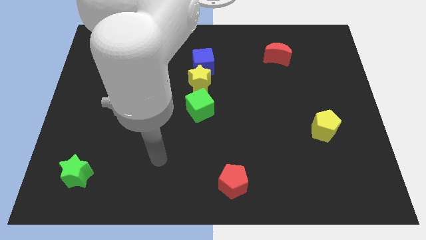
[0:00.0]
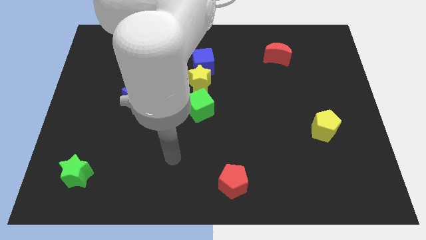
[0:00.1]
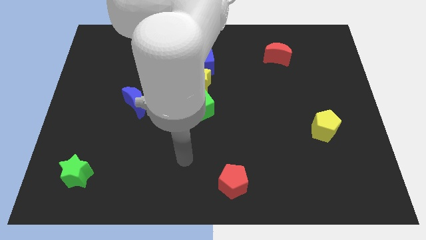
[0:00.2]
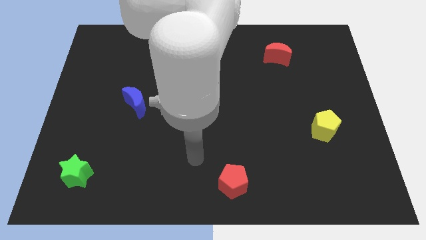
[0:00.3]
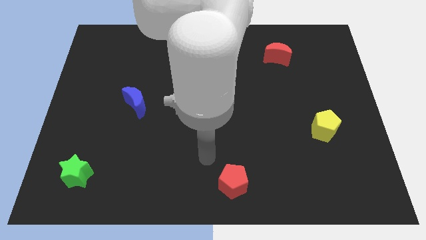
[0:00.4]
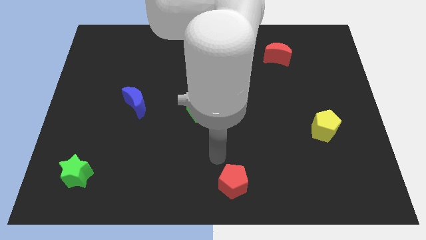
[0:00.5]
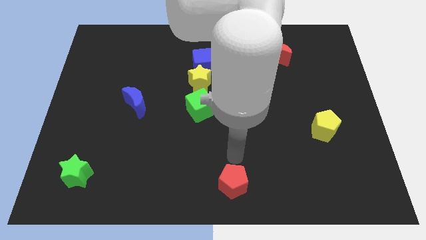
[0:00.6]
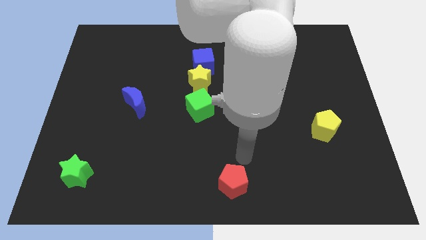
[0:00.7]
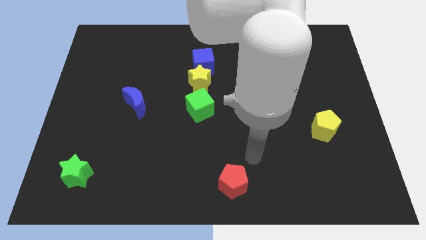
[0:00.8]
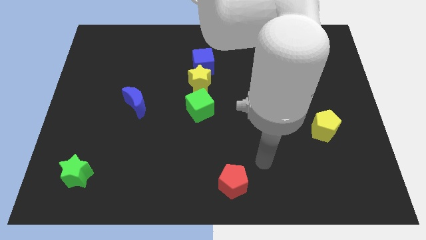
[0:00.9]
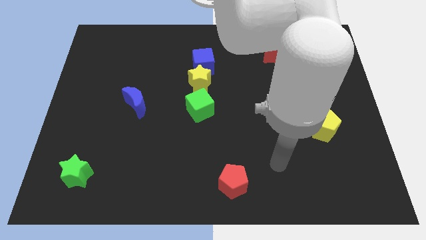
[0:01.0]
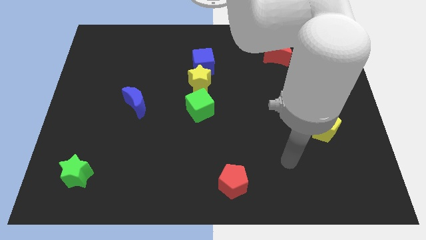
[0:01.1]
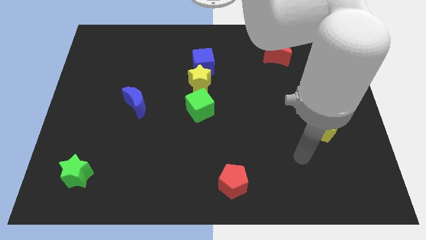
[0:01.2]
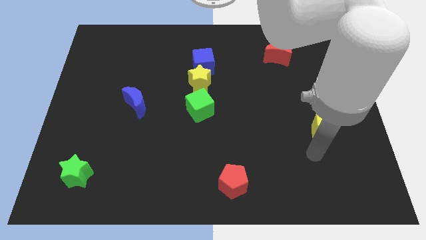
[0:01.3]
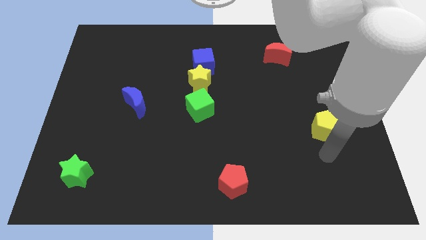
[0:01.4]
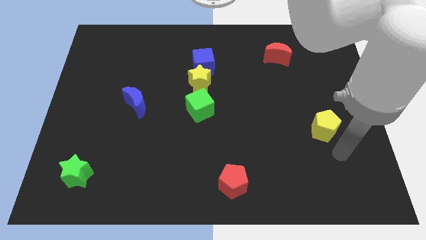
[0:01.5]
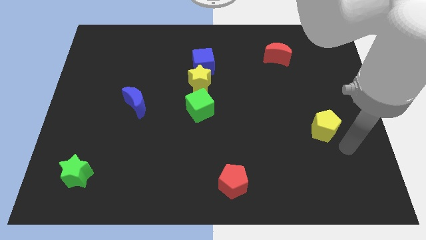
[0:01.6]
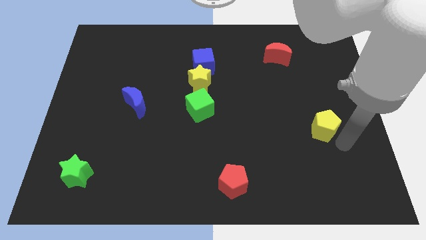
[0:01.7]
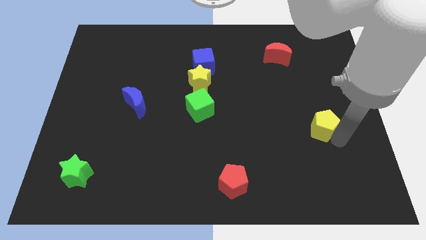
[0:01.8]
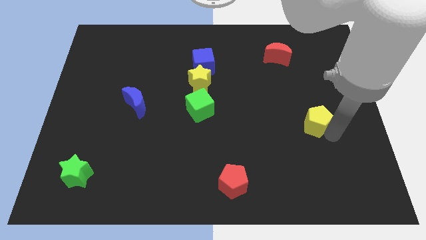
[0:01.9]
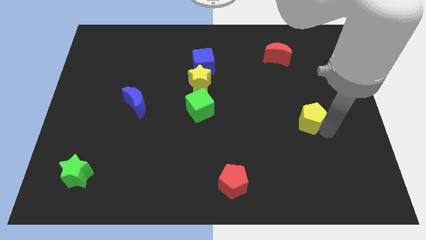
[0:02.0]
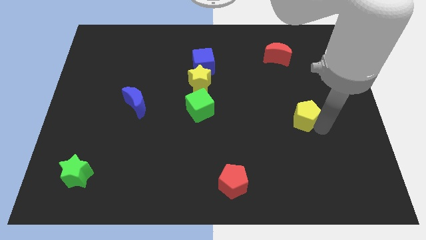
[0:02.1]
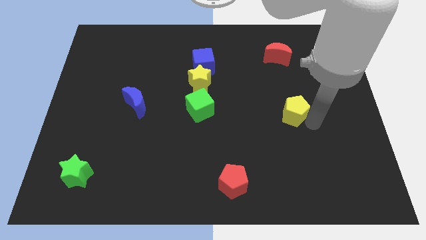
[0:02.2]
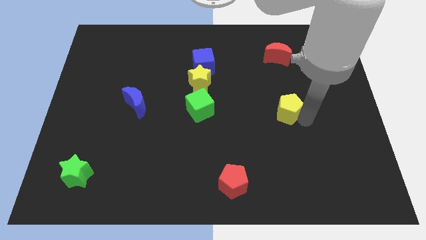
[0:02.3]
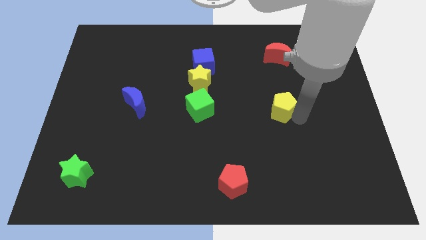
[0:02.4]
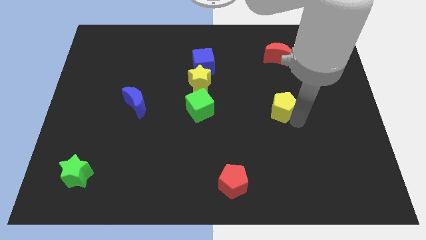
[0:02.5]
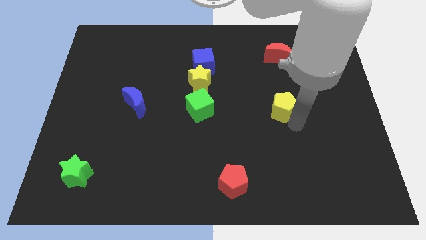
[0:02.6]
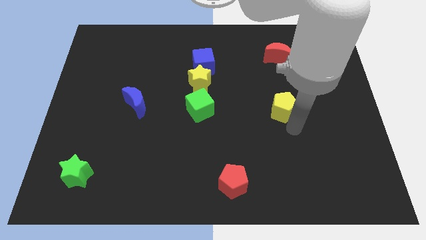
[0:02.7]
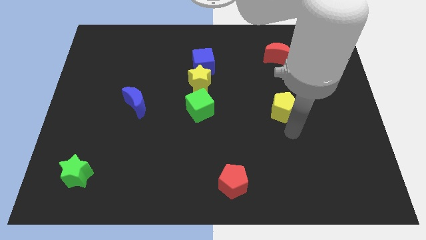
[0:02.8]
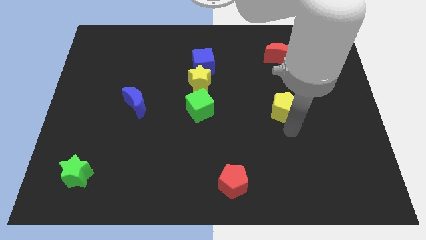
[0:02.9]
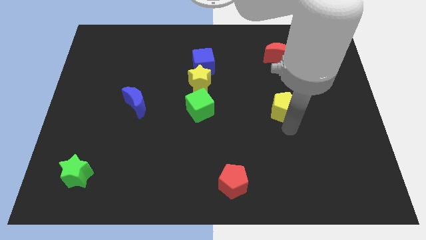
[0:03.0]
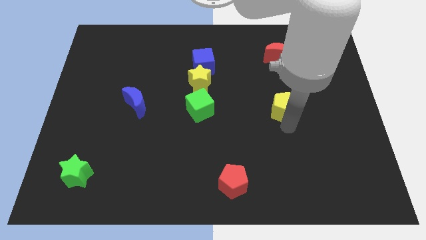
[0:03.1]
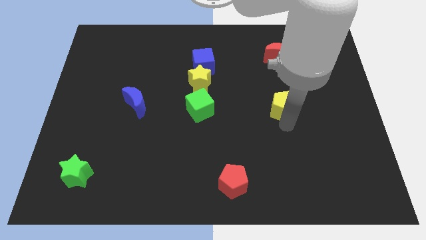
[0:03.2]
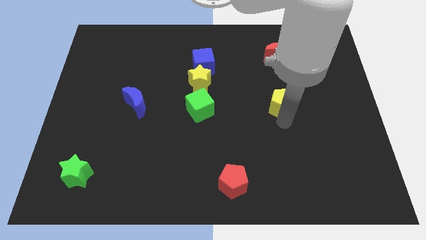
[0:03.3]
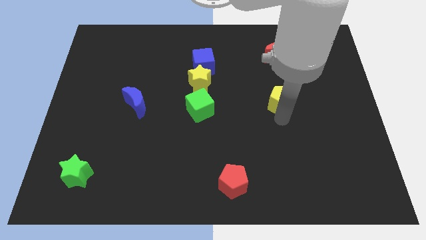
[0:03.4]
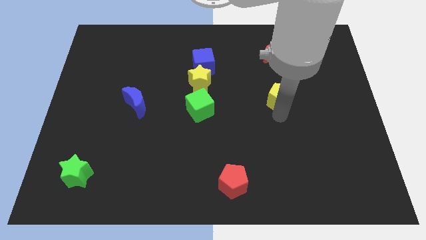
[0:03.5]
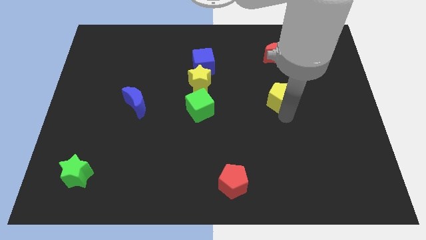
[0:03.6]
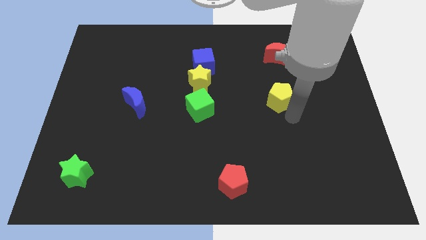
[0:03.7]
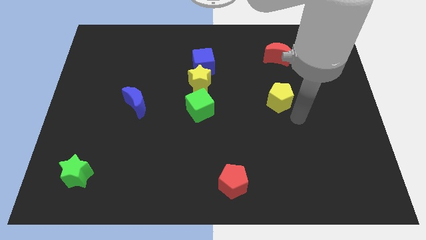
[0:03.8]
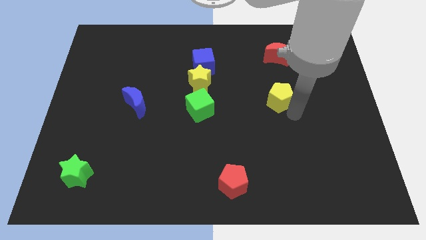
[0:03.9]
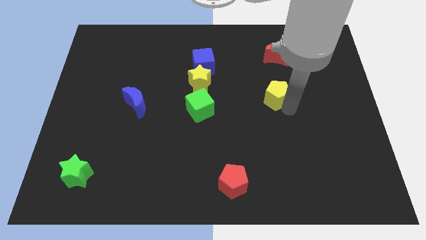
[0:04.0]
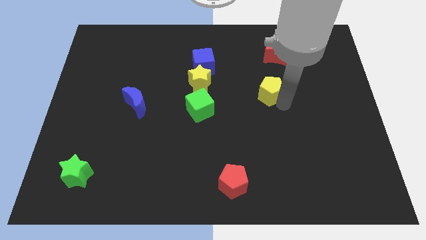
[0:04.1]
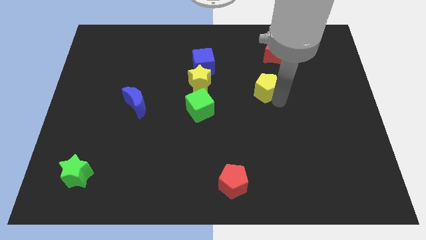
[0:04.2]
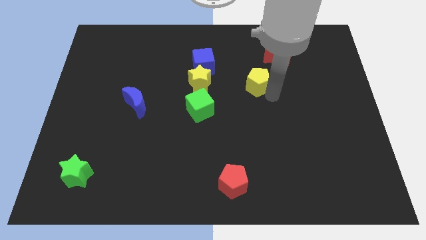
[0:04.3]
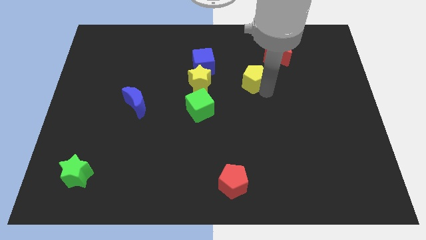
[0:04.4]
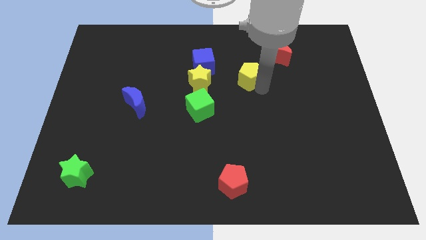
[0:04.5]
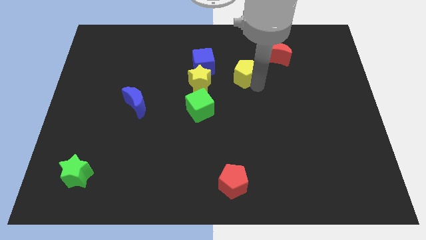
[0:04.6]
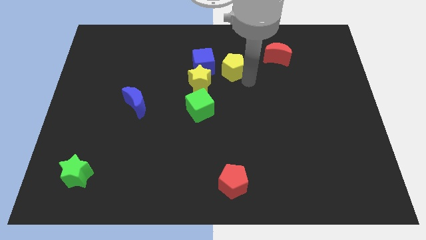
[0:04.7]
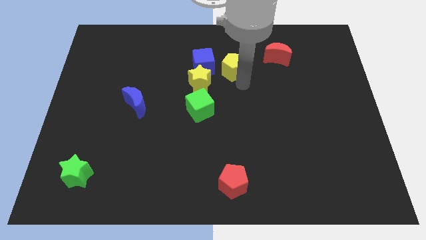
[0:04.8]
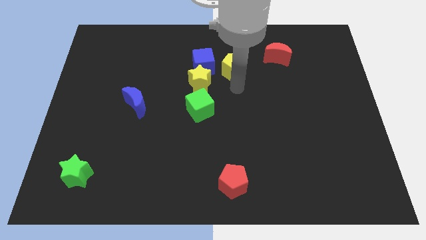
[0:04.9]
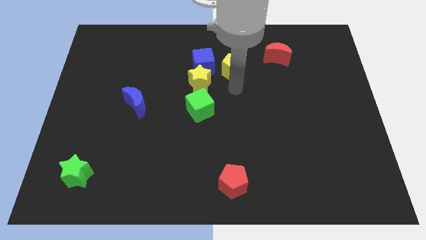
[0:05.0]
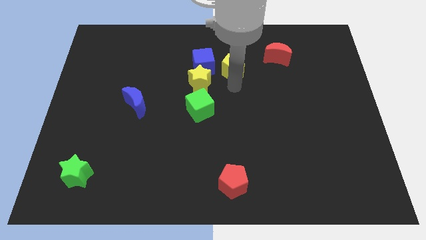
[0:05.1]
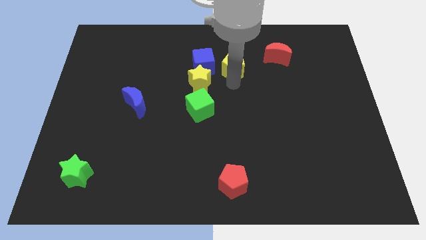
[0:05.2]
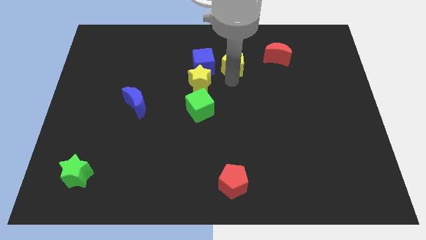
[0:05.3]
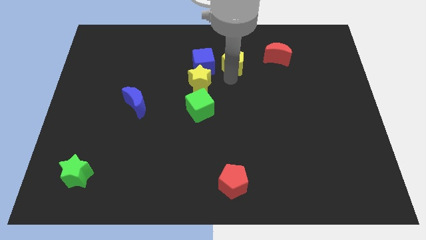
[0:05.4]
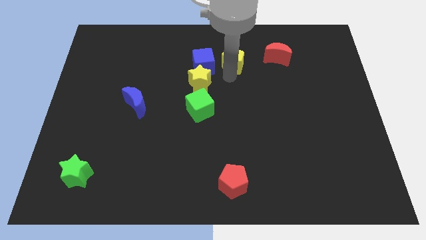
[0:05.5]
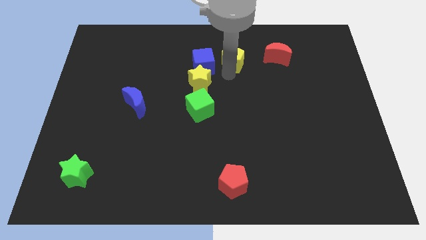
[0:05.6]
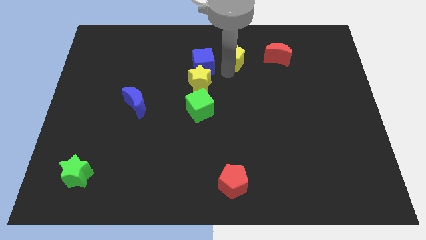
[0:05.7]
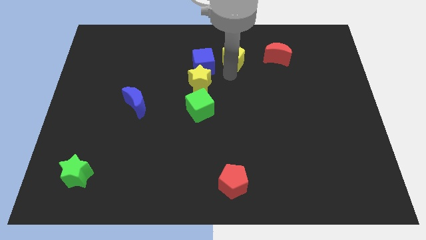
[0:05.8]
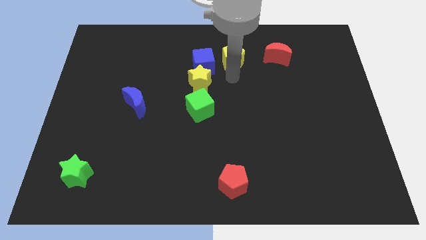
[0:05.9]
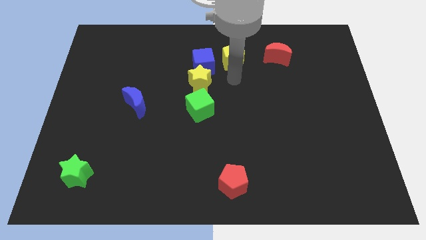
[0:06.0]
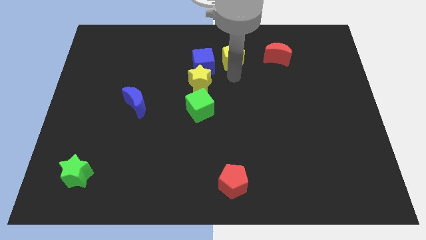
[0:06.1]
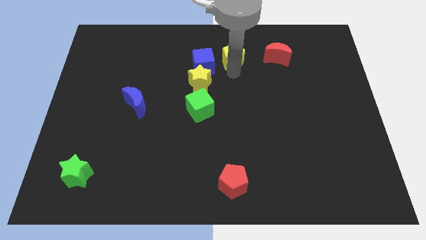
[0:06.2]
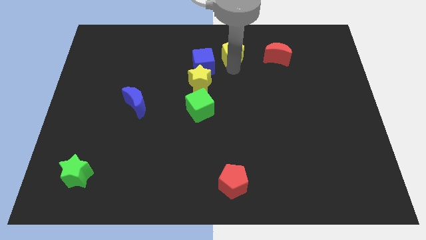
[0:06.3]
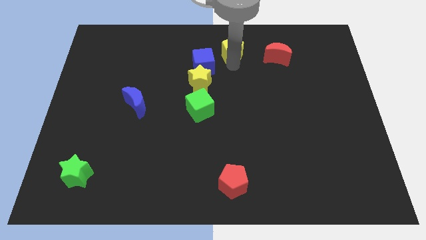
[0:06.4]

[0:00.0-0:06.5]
move the yellow pentagon to the top

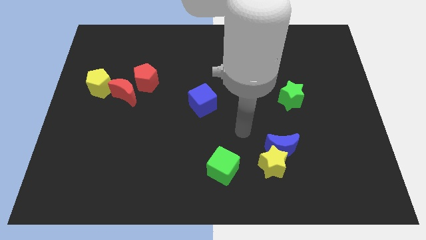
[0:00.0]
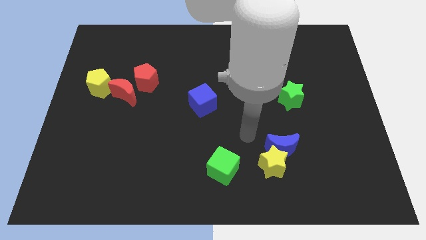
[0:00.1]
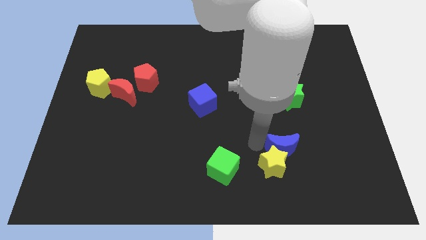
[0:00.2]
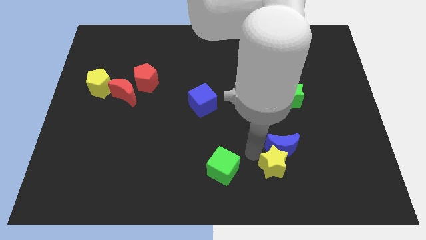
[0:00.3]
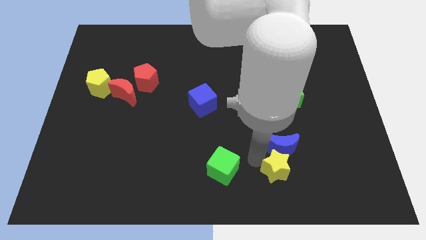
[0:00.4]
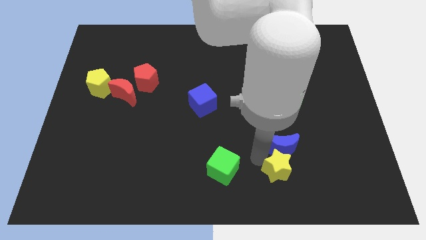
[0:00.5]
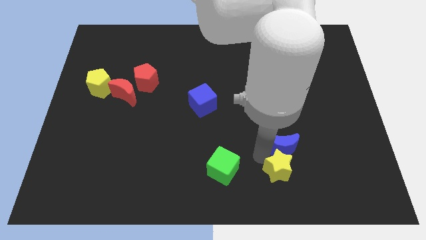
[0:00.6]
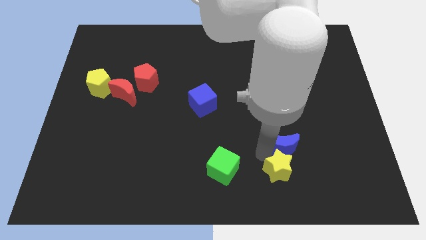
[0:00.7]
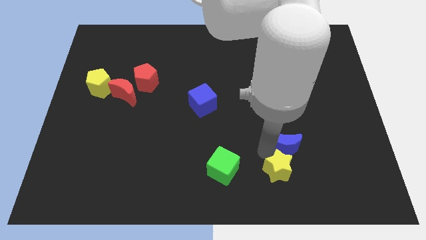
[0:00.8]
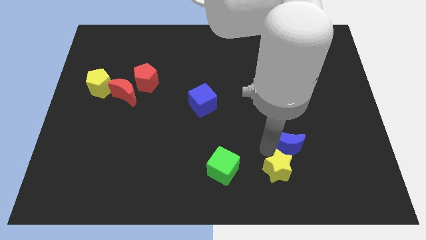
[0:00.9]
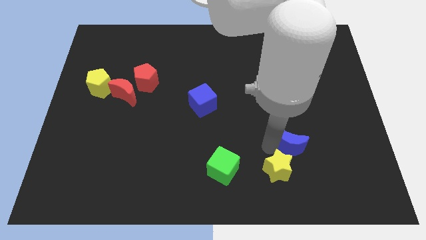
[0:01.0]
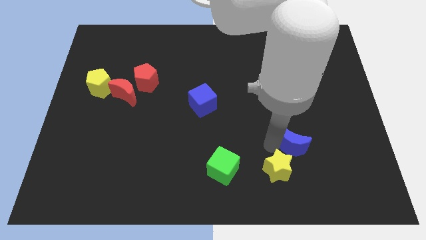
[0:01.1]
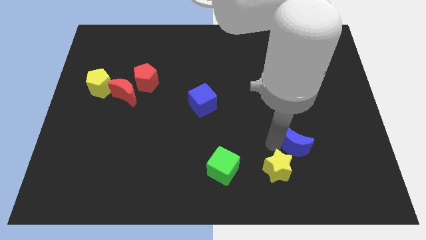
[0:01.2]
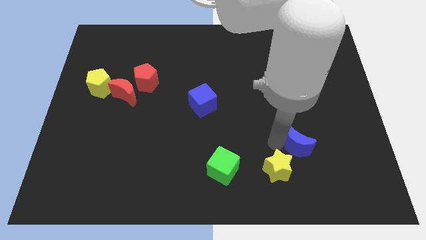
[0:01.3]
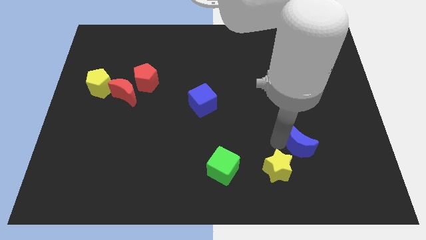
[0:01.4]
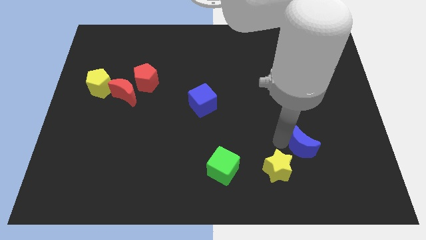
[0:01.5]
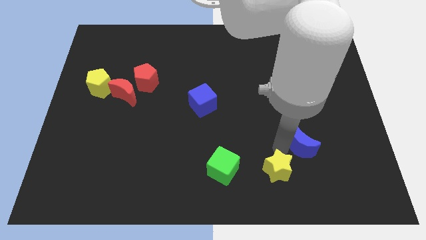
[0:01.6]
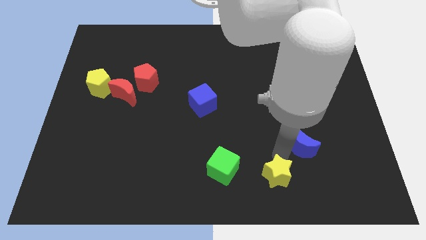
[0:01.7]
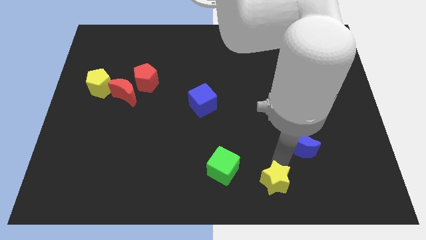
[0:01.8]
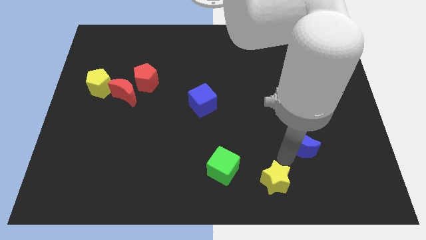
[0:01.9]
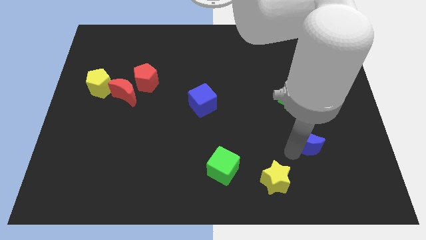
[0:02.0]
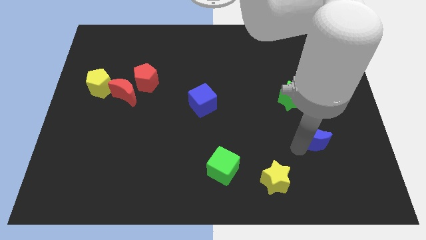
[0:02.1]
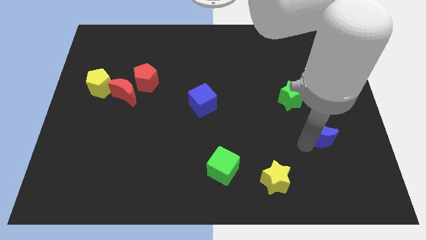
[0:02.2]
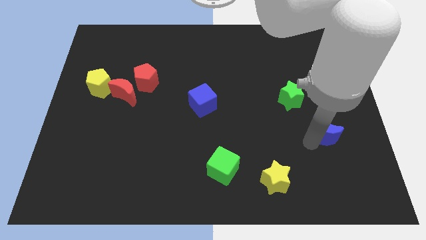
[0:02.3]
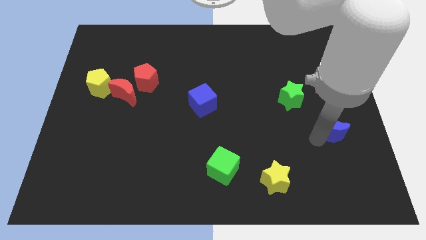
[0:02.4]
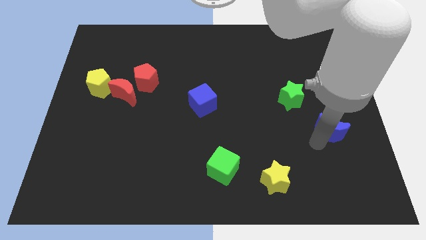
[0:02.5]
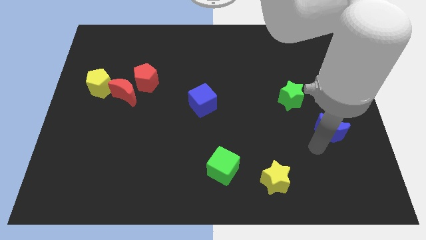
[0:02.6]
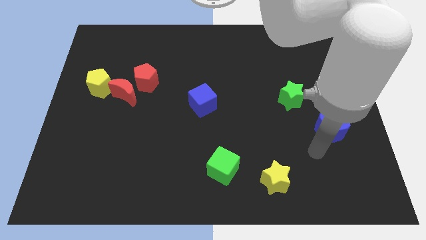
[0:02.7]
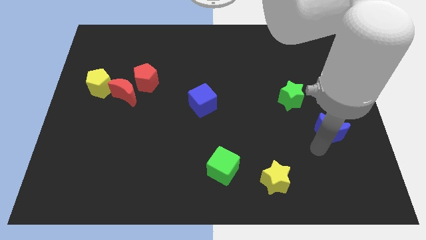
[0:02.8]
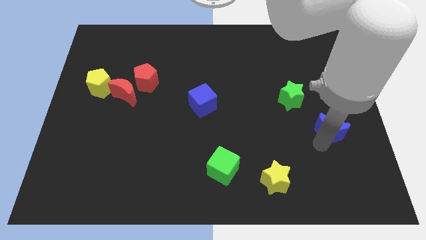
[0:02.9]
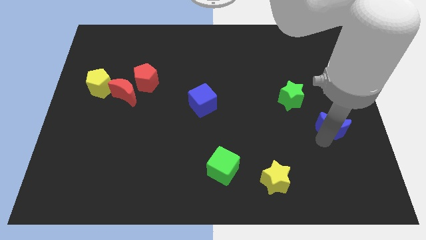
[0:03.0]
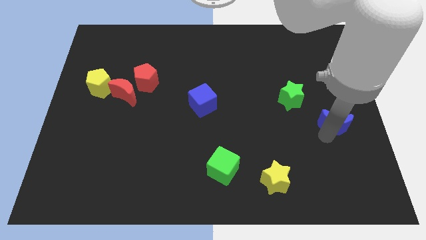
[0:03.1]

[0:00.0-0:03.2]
push the blue moon to the right side of the board
